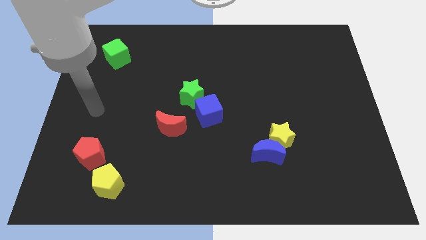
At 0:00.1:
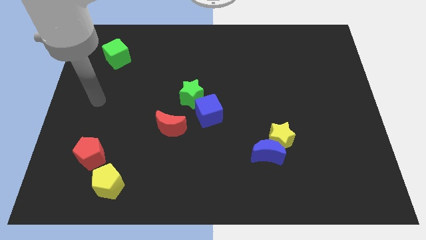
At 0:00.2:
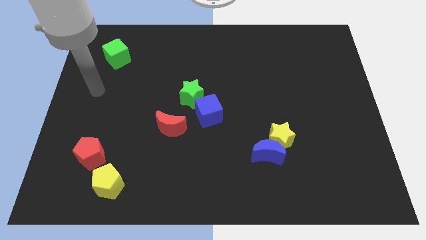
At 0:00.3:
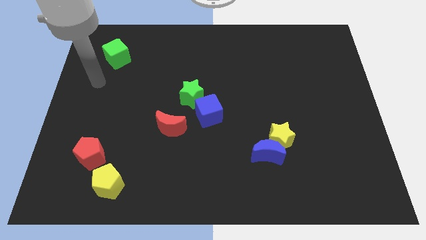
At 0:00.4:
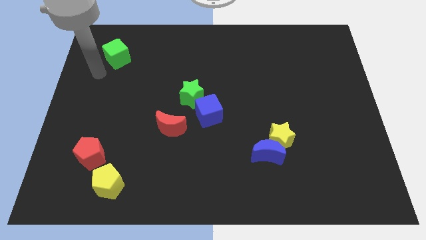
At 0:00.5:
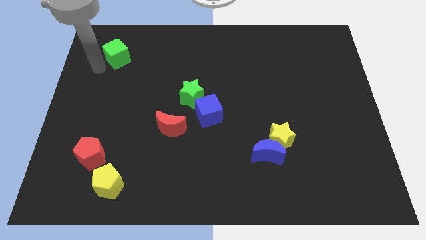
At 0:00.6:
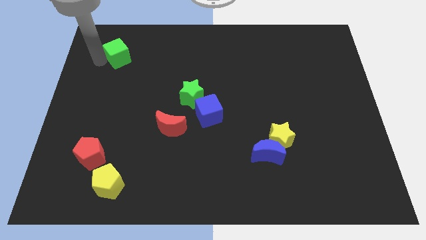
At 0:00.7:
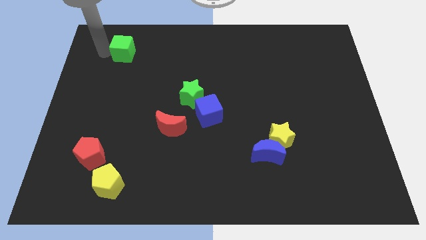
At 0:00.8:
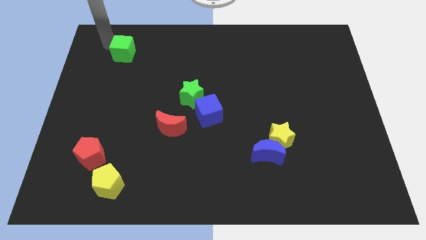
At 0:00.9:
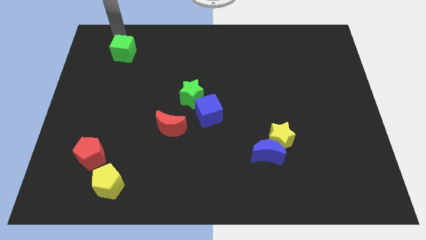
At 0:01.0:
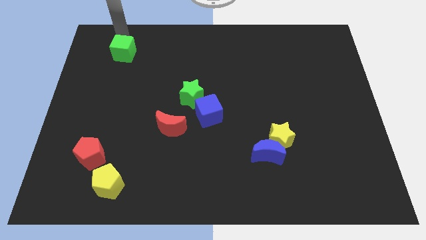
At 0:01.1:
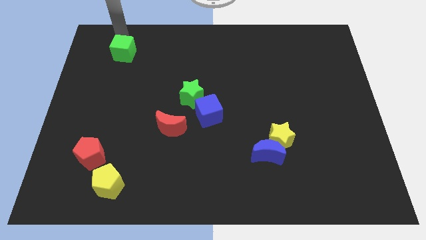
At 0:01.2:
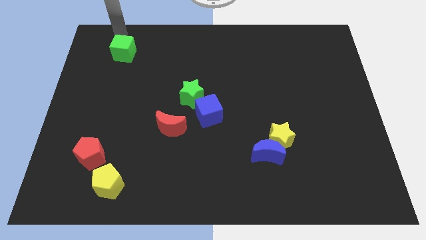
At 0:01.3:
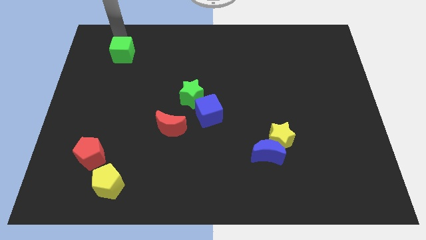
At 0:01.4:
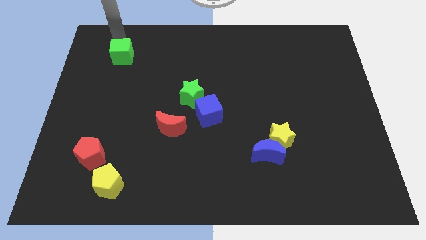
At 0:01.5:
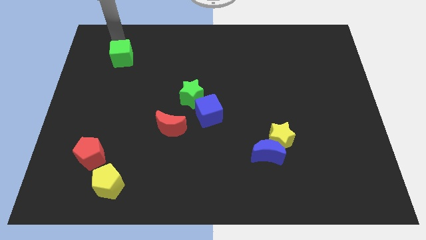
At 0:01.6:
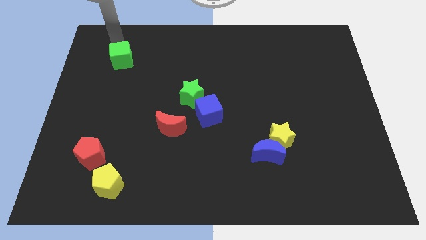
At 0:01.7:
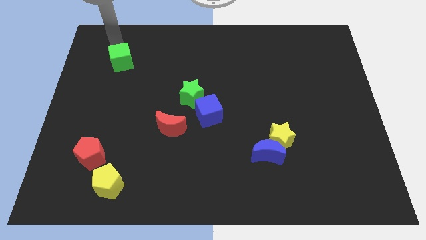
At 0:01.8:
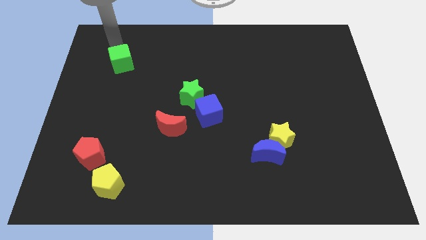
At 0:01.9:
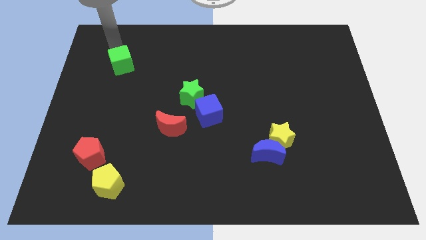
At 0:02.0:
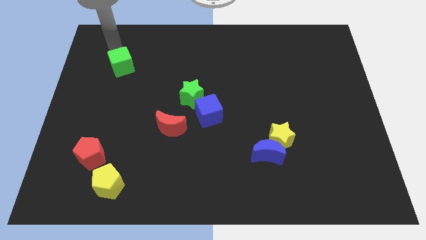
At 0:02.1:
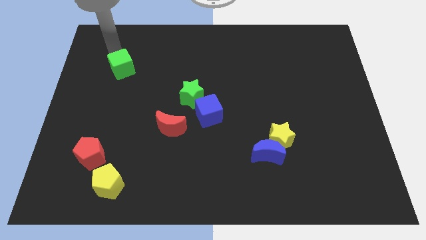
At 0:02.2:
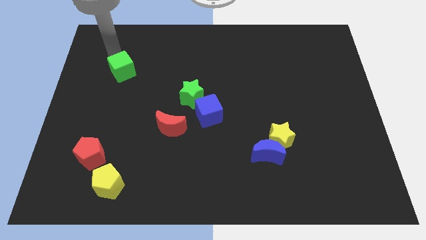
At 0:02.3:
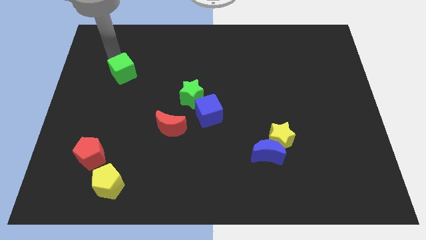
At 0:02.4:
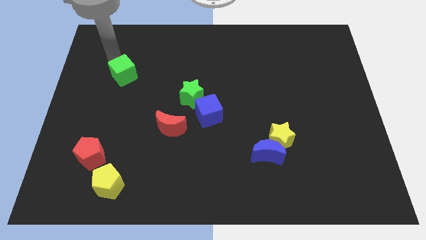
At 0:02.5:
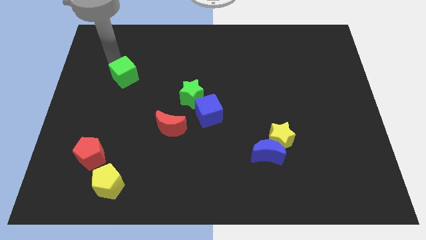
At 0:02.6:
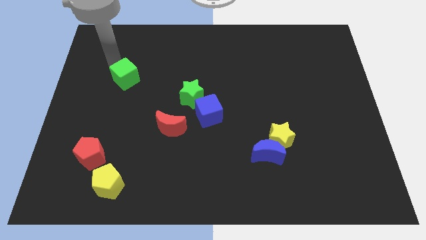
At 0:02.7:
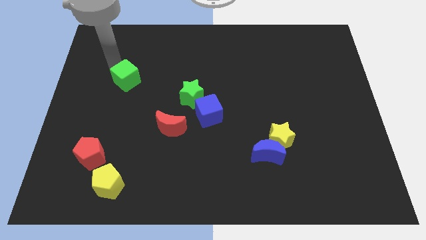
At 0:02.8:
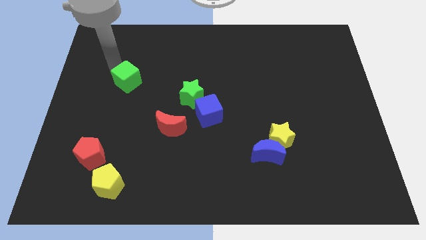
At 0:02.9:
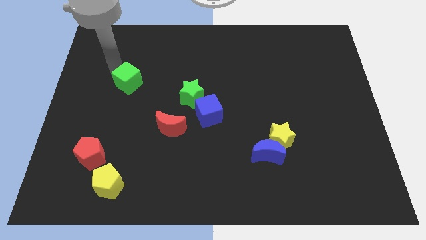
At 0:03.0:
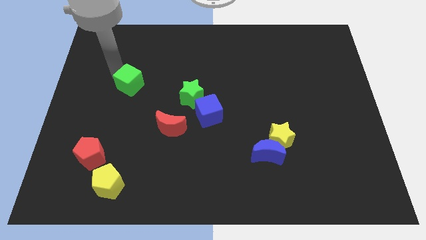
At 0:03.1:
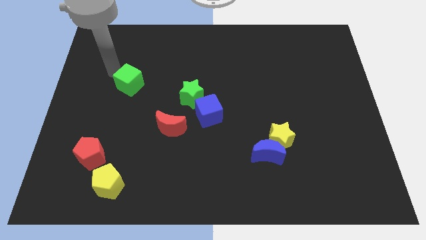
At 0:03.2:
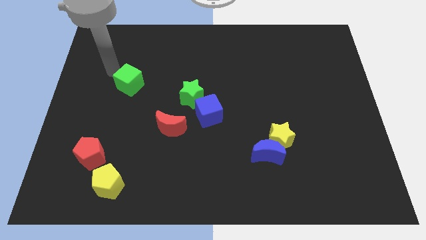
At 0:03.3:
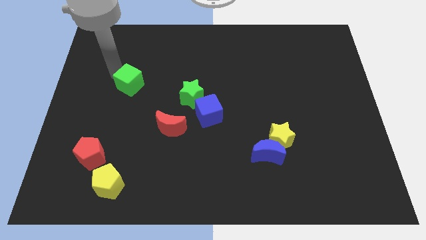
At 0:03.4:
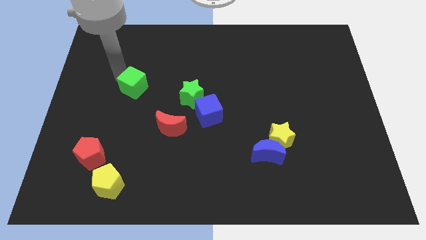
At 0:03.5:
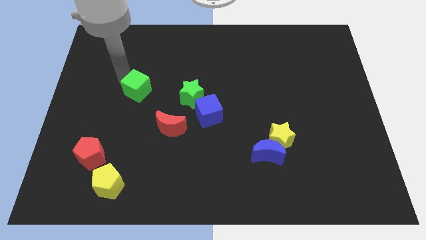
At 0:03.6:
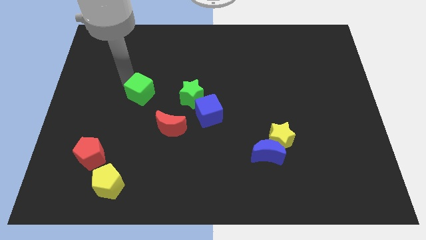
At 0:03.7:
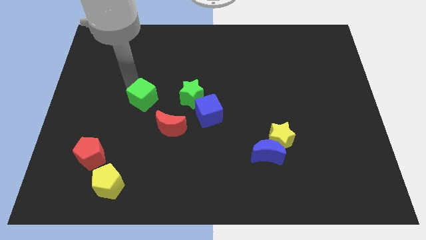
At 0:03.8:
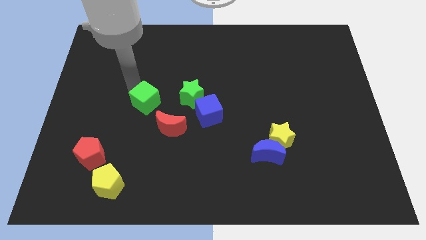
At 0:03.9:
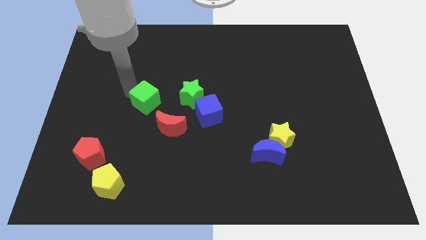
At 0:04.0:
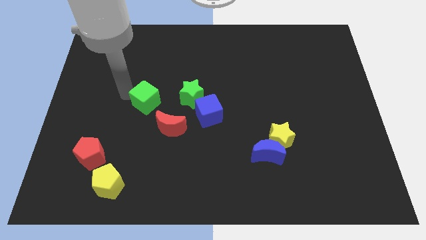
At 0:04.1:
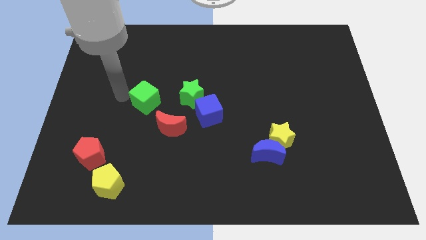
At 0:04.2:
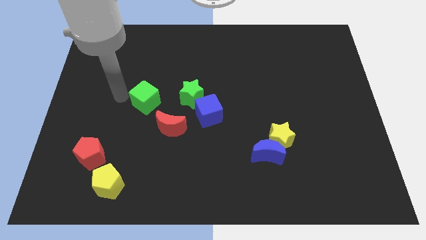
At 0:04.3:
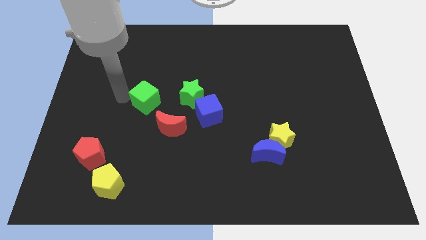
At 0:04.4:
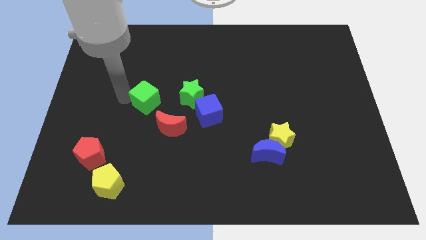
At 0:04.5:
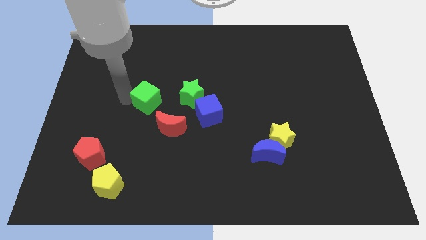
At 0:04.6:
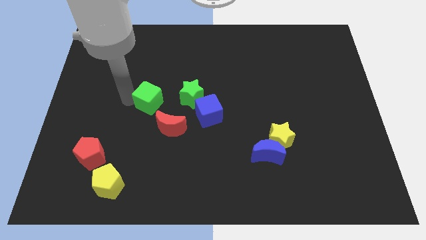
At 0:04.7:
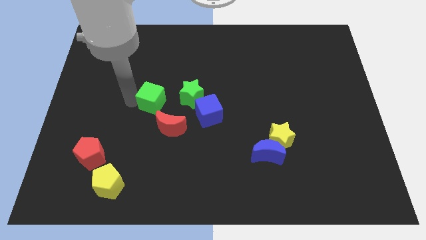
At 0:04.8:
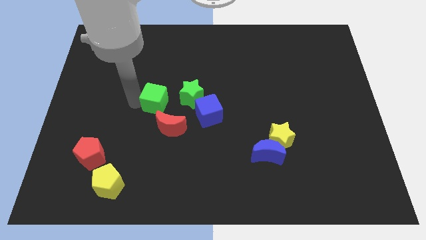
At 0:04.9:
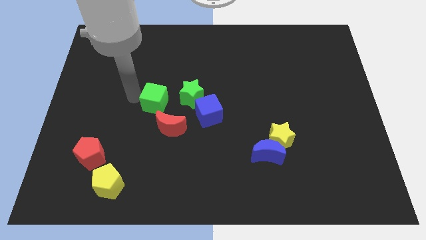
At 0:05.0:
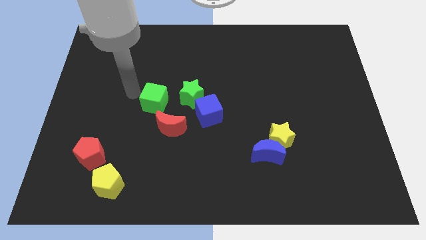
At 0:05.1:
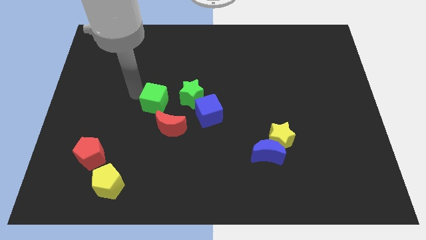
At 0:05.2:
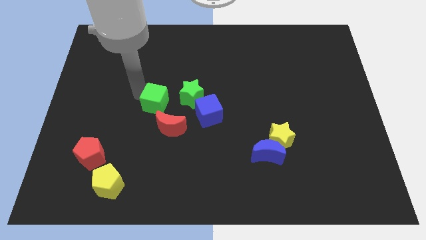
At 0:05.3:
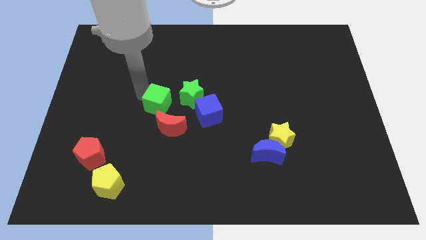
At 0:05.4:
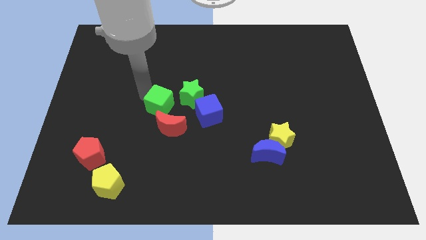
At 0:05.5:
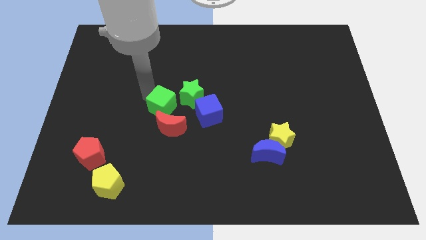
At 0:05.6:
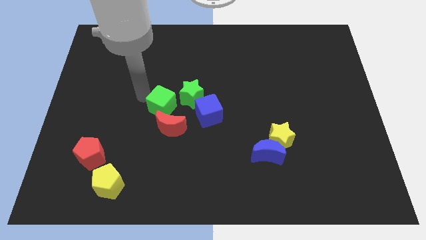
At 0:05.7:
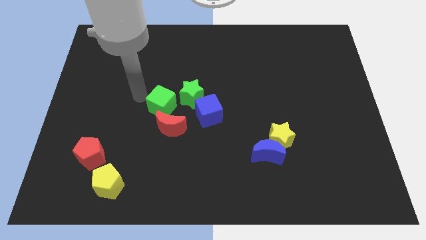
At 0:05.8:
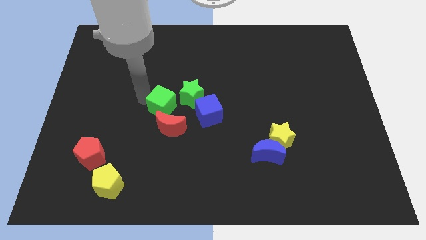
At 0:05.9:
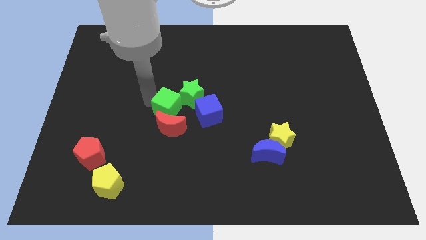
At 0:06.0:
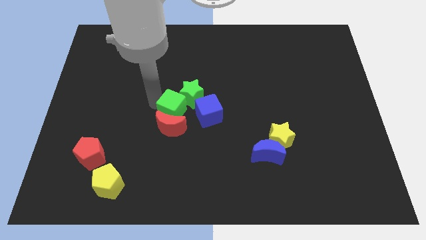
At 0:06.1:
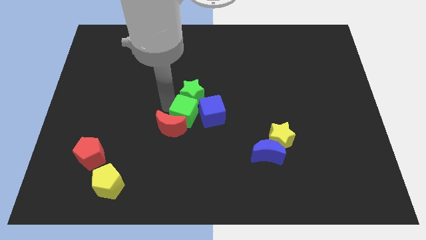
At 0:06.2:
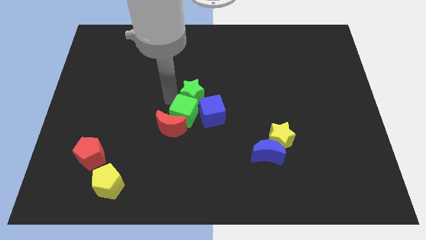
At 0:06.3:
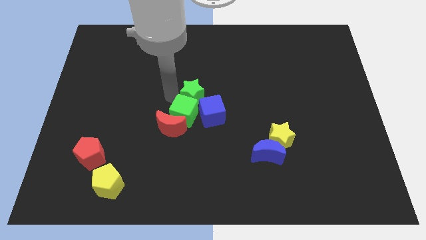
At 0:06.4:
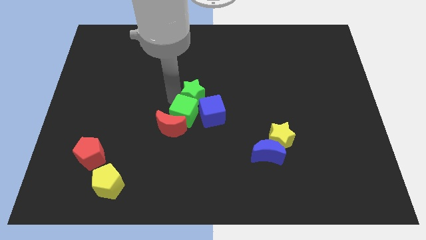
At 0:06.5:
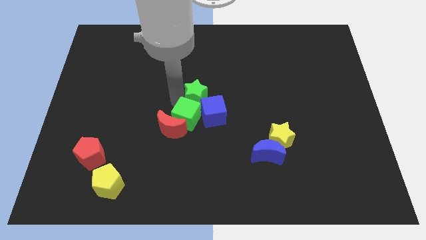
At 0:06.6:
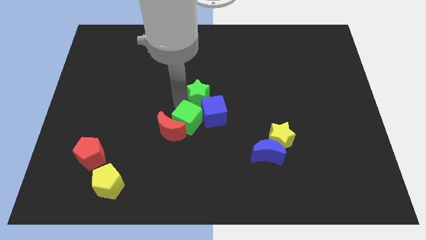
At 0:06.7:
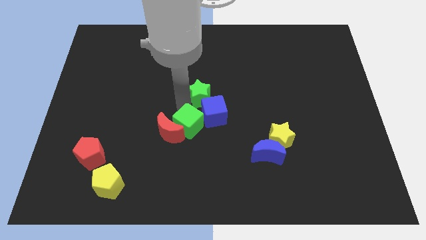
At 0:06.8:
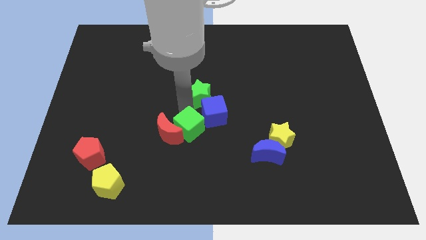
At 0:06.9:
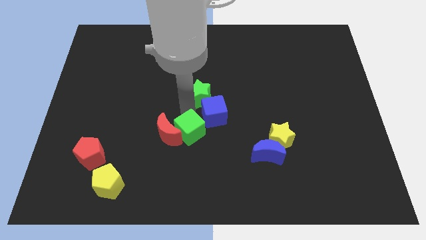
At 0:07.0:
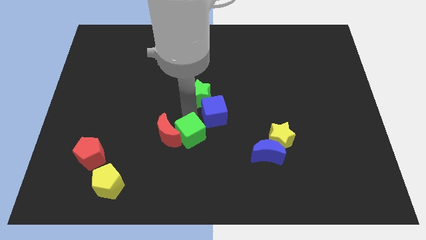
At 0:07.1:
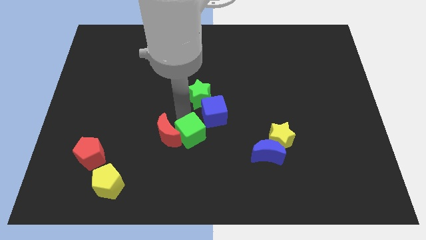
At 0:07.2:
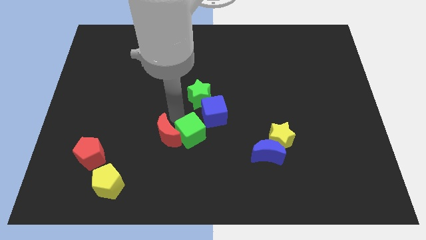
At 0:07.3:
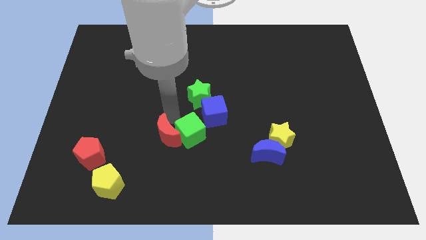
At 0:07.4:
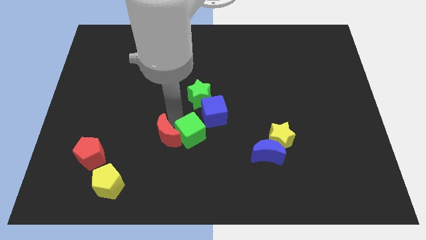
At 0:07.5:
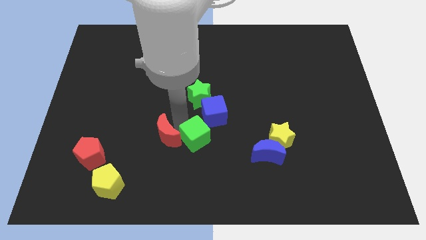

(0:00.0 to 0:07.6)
put the green cube below the blue cube

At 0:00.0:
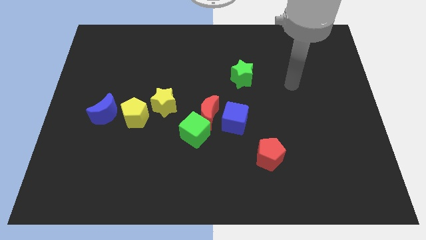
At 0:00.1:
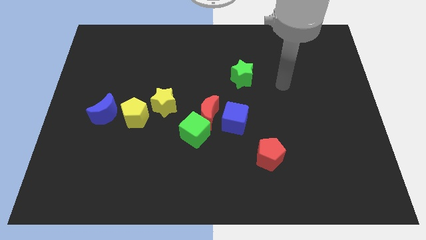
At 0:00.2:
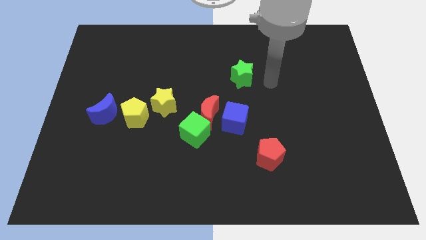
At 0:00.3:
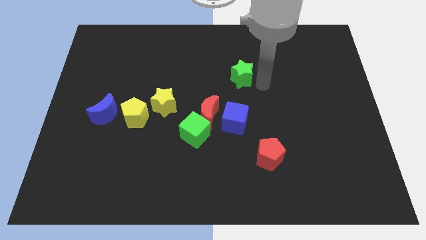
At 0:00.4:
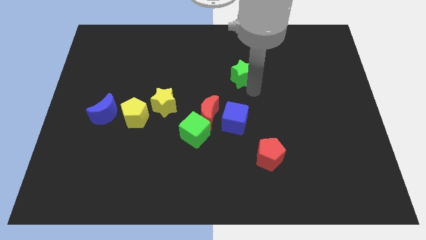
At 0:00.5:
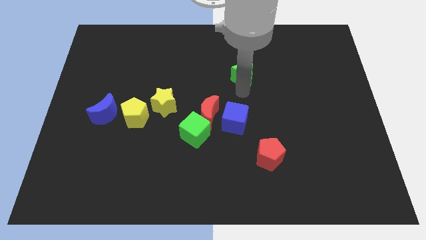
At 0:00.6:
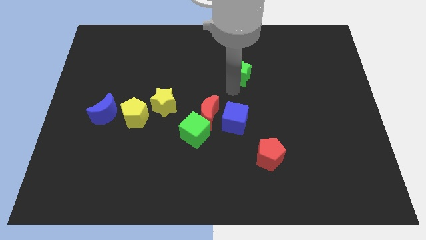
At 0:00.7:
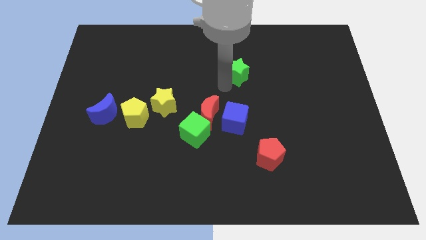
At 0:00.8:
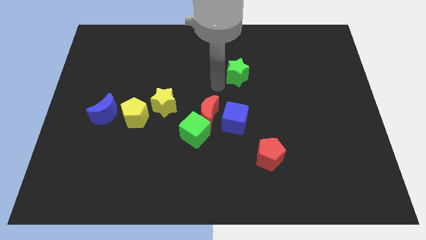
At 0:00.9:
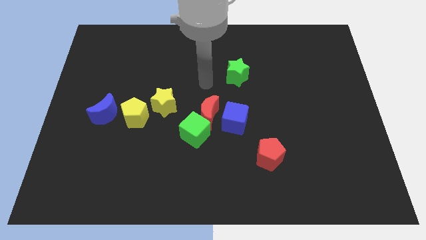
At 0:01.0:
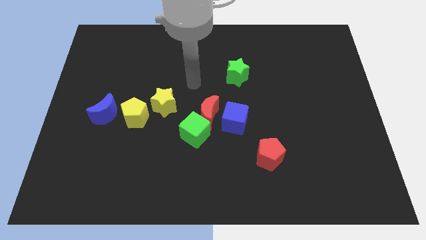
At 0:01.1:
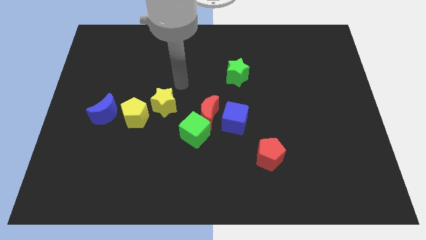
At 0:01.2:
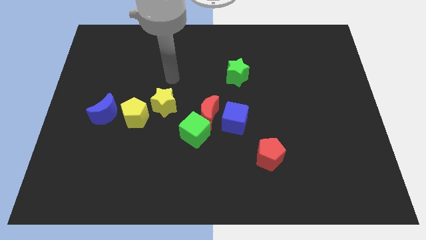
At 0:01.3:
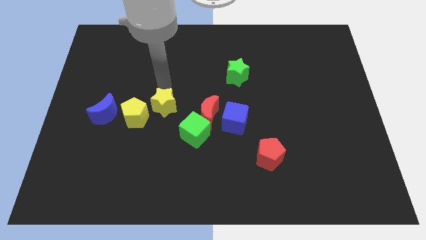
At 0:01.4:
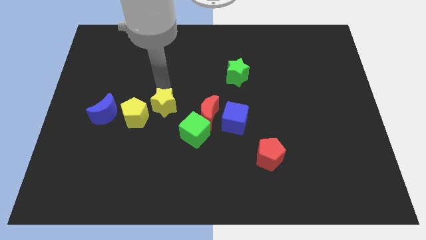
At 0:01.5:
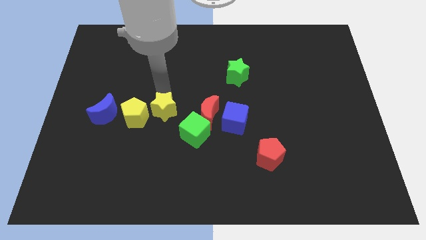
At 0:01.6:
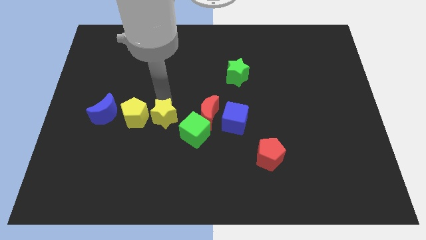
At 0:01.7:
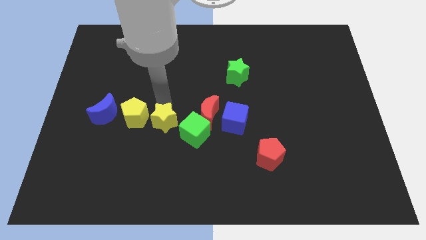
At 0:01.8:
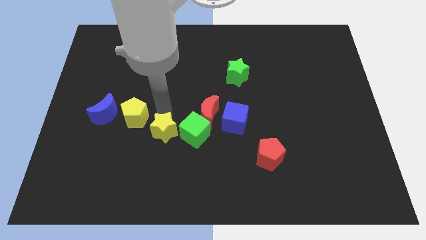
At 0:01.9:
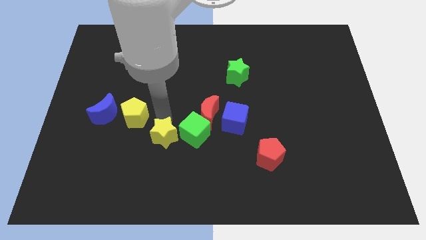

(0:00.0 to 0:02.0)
push the yellow star diagonally down and to the left of the green cube
